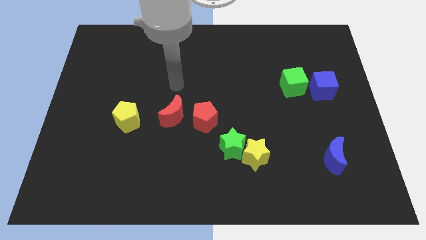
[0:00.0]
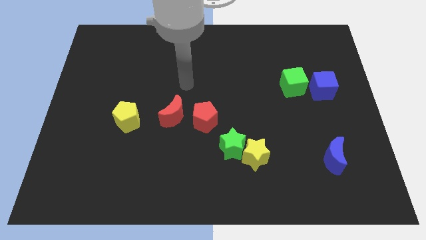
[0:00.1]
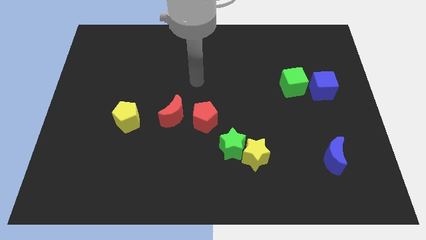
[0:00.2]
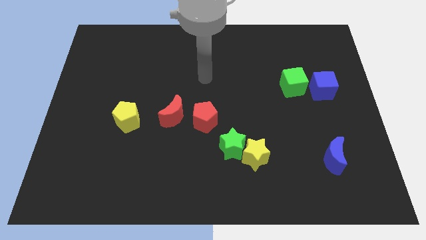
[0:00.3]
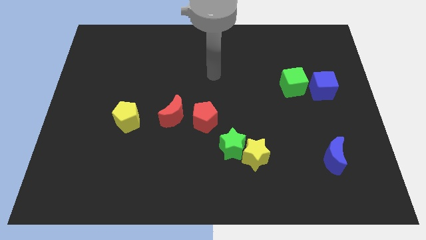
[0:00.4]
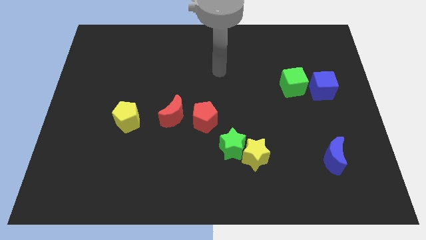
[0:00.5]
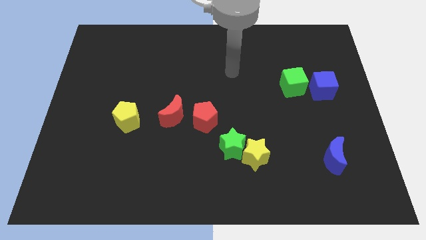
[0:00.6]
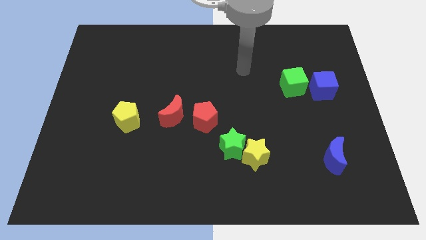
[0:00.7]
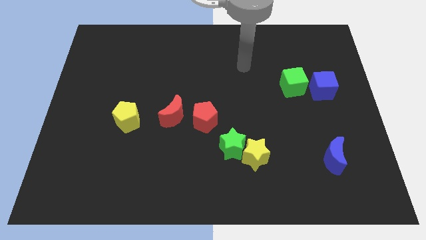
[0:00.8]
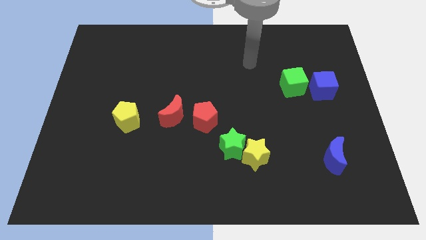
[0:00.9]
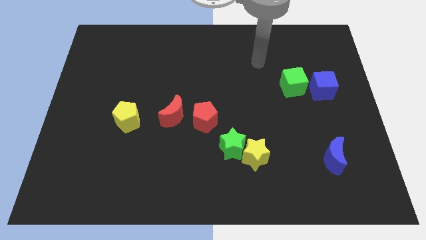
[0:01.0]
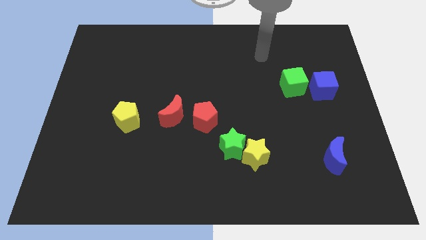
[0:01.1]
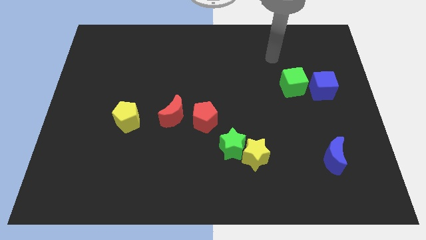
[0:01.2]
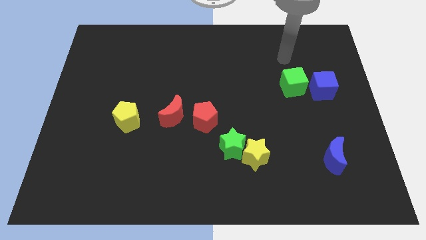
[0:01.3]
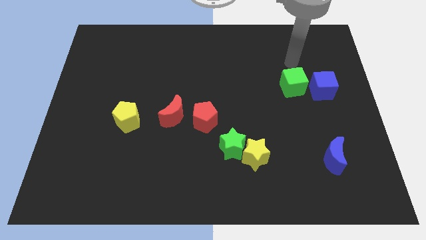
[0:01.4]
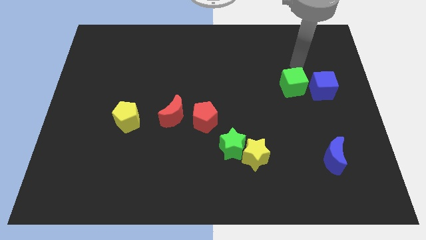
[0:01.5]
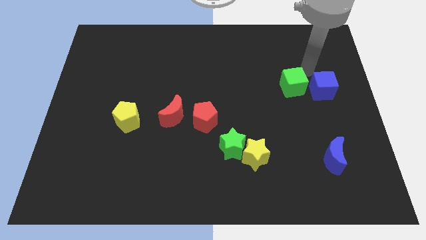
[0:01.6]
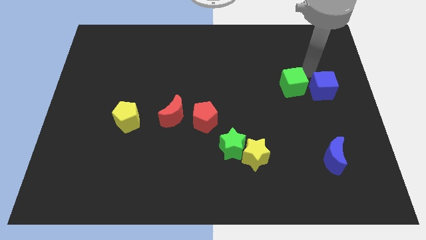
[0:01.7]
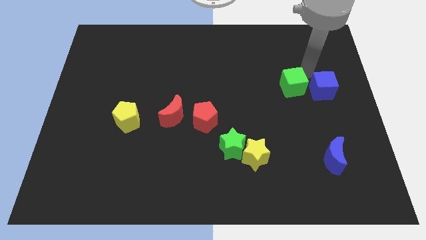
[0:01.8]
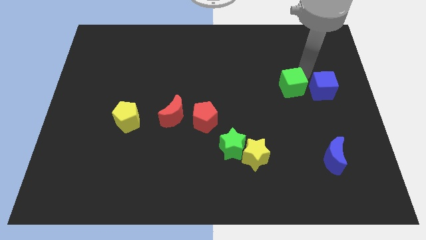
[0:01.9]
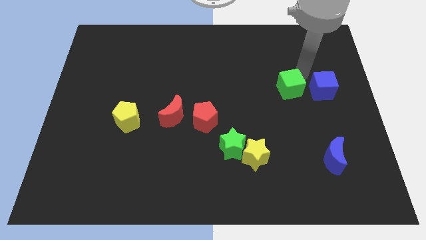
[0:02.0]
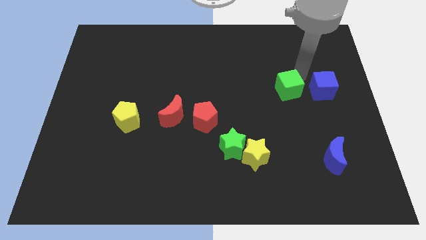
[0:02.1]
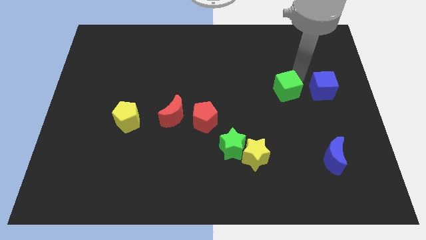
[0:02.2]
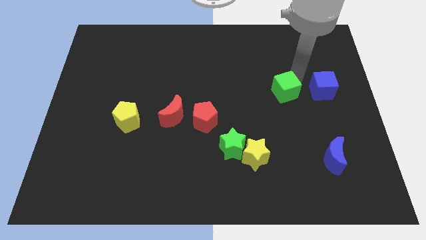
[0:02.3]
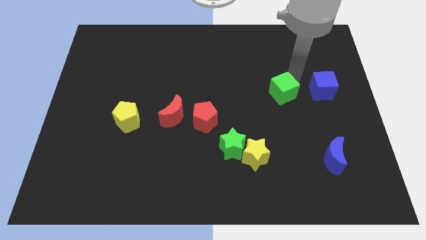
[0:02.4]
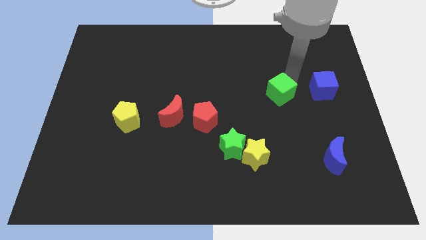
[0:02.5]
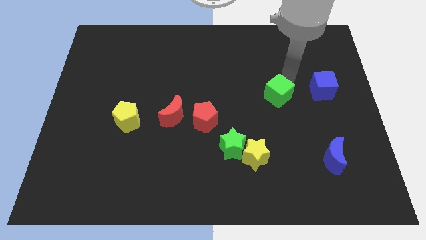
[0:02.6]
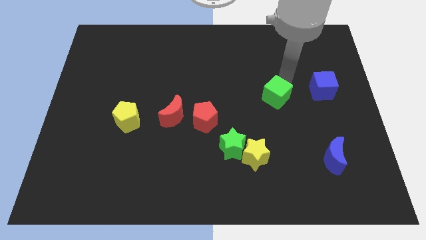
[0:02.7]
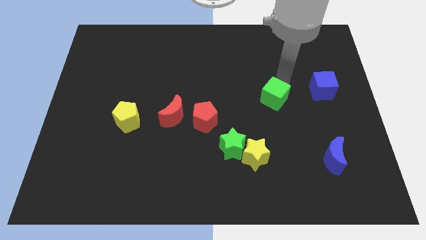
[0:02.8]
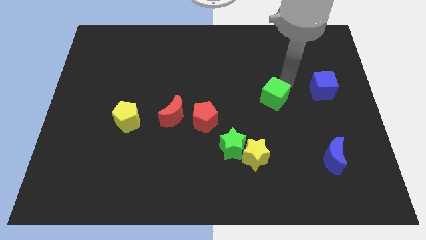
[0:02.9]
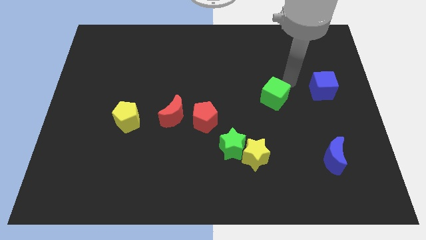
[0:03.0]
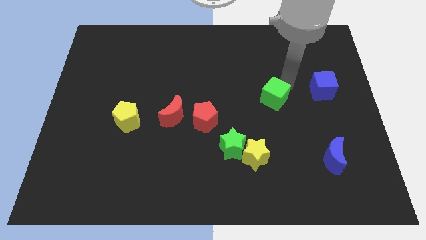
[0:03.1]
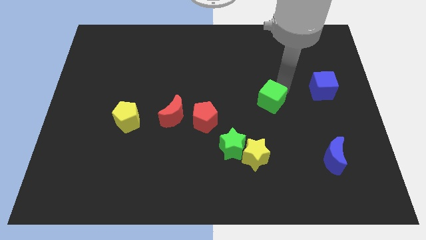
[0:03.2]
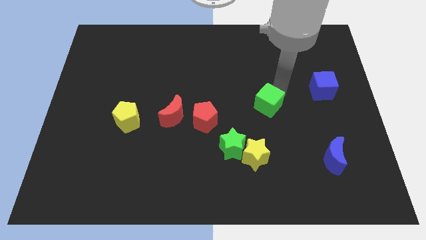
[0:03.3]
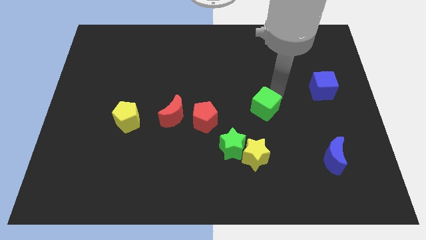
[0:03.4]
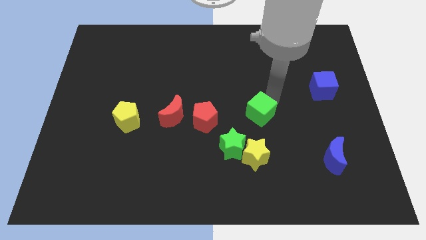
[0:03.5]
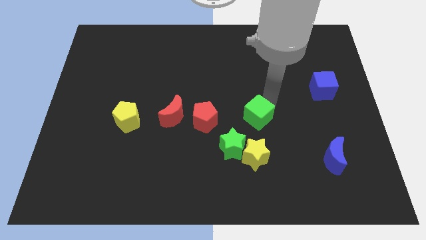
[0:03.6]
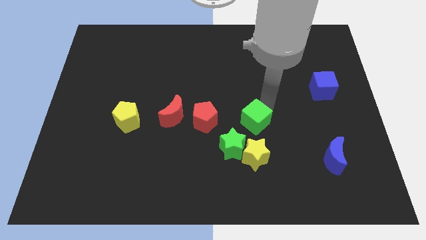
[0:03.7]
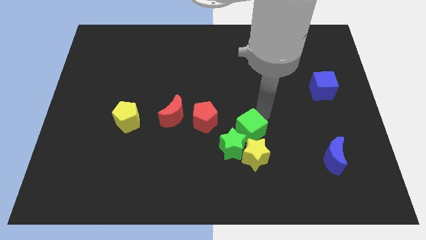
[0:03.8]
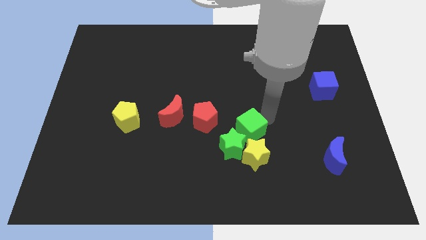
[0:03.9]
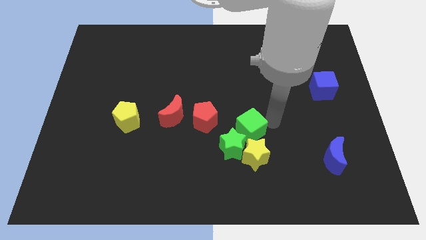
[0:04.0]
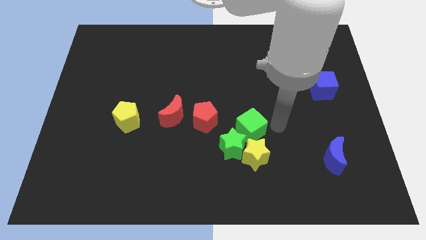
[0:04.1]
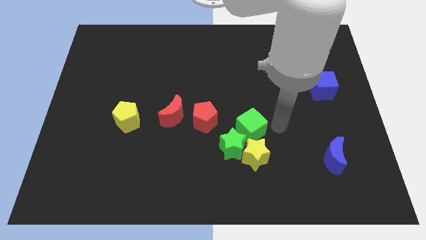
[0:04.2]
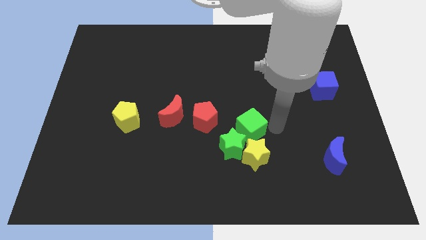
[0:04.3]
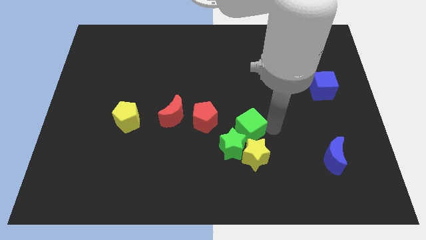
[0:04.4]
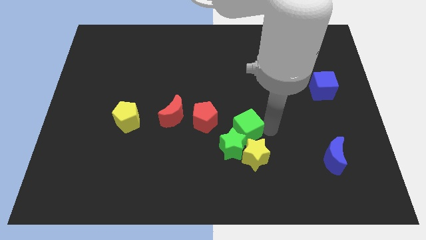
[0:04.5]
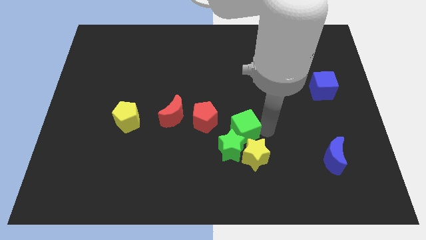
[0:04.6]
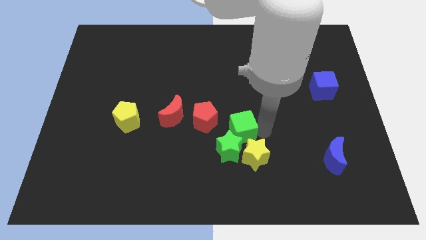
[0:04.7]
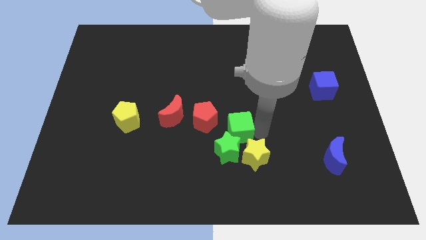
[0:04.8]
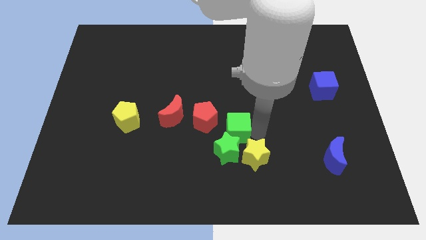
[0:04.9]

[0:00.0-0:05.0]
slide the green cube downwards and then to the left

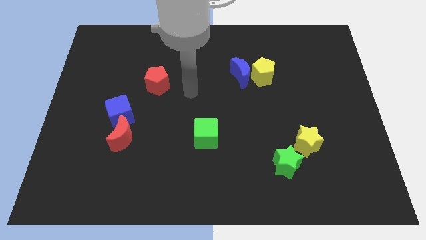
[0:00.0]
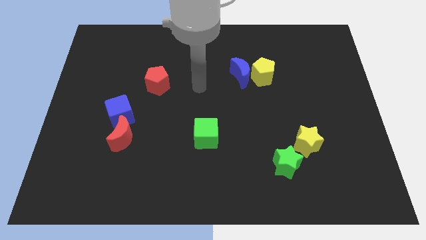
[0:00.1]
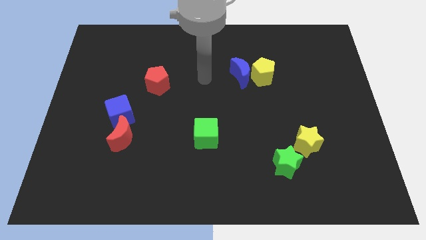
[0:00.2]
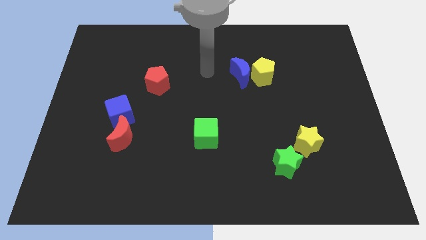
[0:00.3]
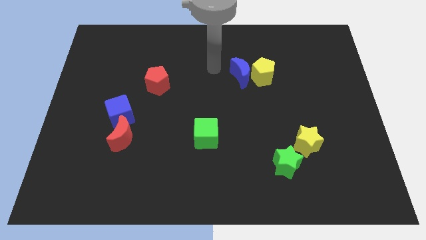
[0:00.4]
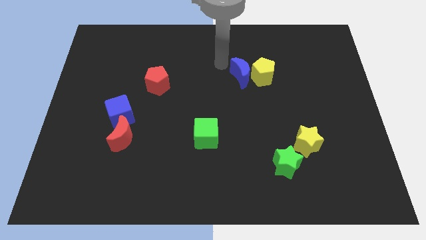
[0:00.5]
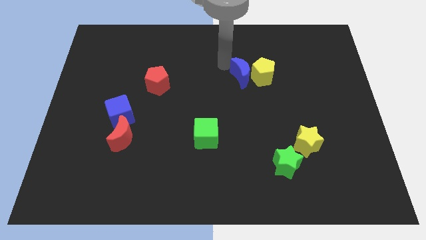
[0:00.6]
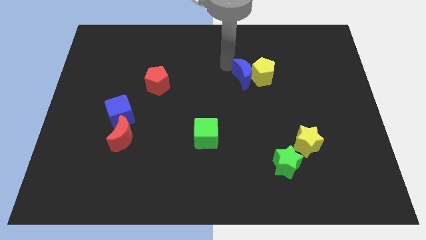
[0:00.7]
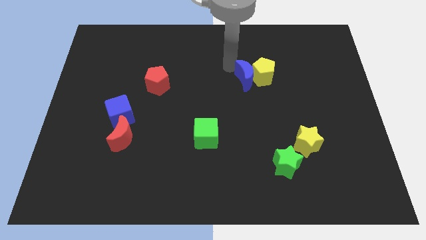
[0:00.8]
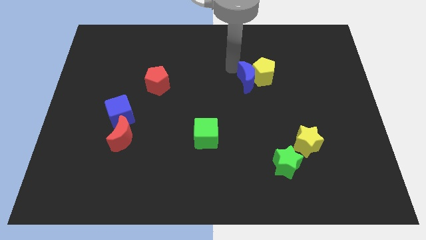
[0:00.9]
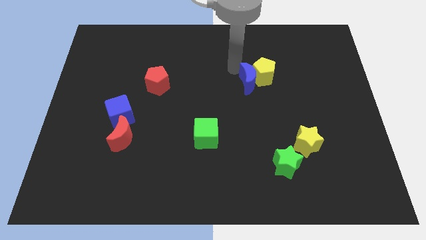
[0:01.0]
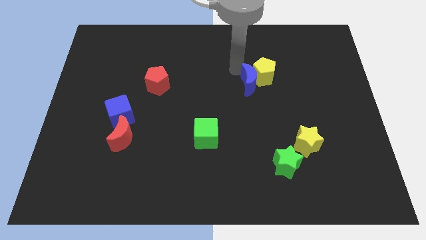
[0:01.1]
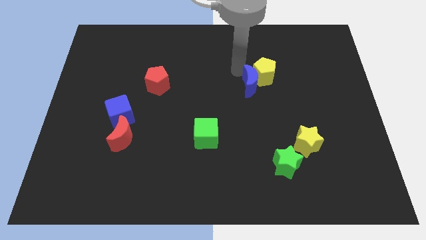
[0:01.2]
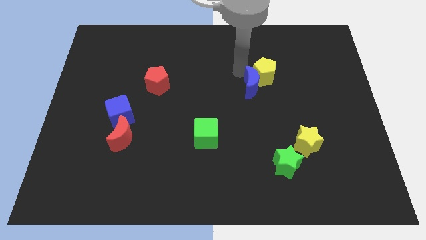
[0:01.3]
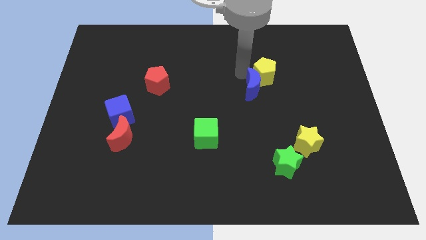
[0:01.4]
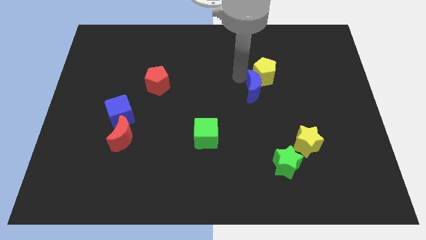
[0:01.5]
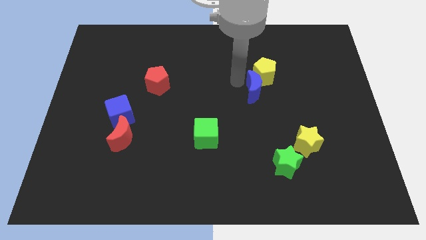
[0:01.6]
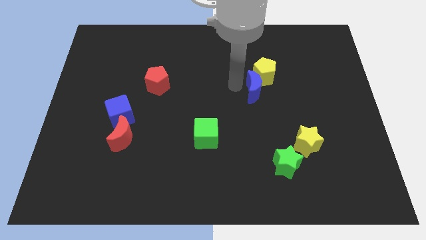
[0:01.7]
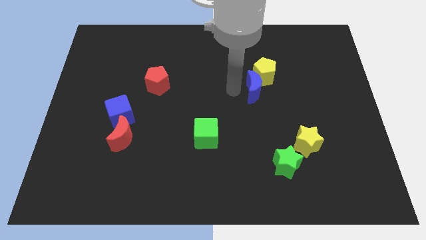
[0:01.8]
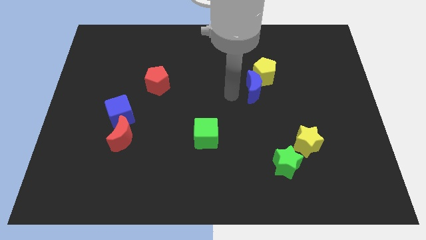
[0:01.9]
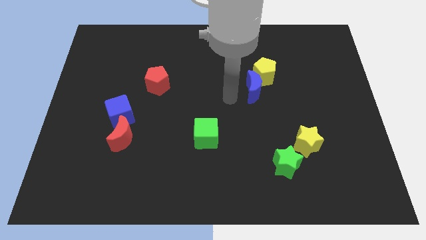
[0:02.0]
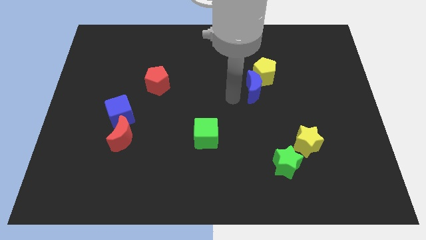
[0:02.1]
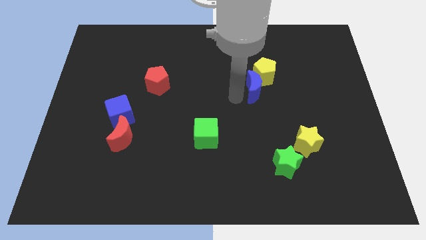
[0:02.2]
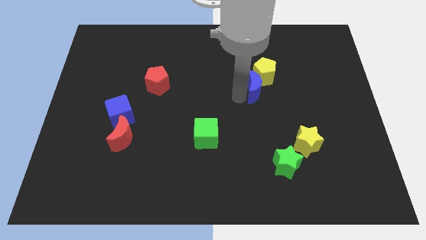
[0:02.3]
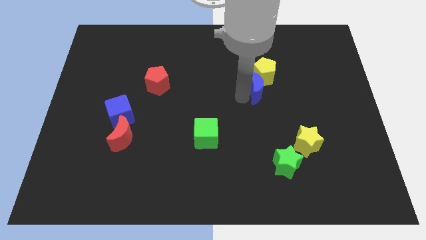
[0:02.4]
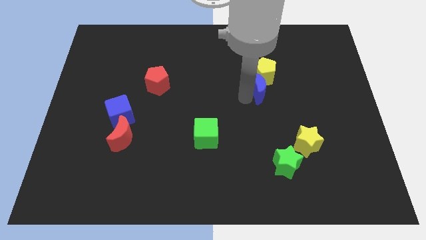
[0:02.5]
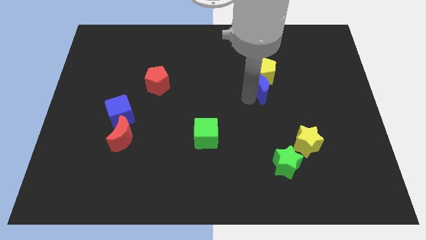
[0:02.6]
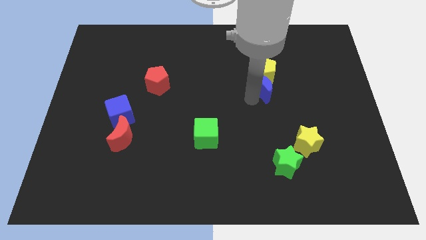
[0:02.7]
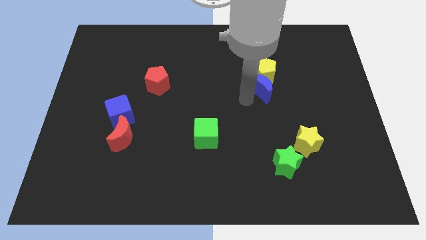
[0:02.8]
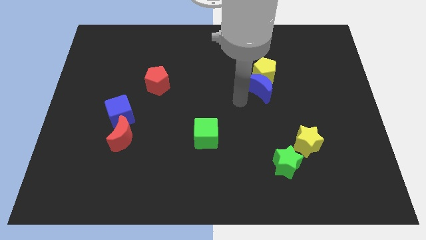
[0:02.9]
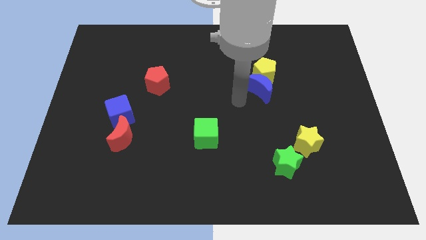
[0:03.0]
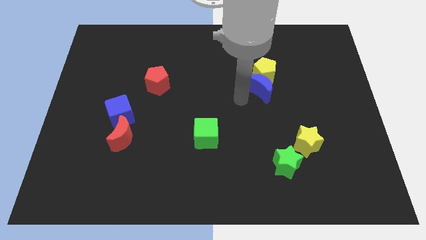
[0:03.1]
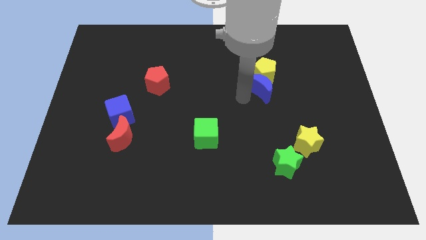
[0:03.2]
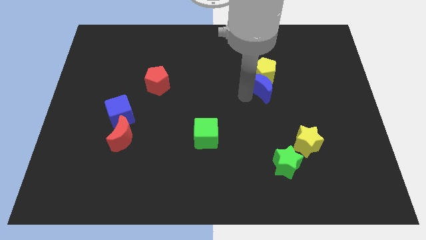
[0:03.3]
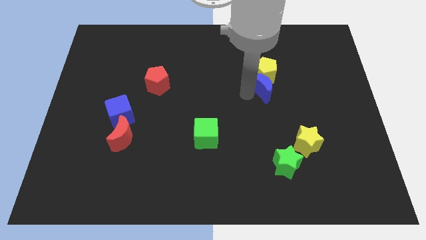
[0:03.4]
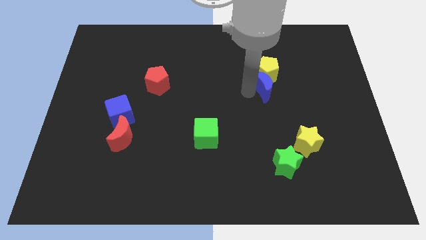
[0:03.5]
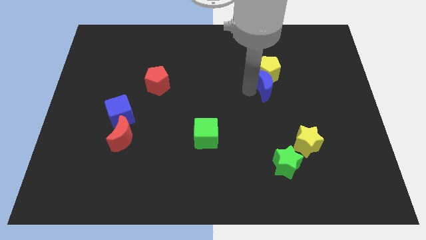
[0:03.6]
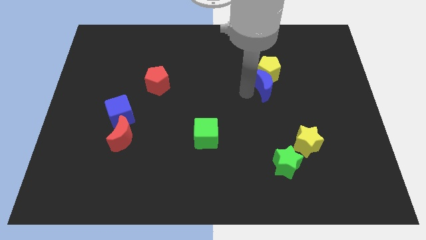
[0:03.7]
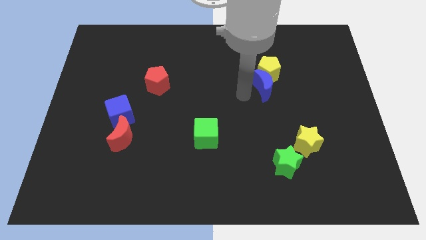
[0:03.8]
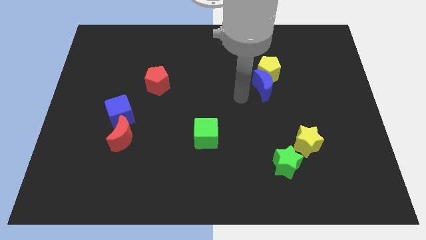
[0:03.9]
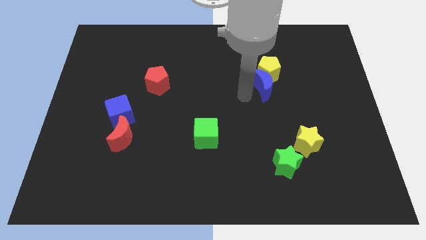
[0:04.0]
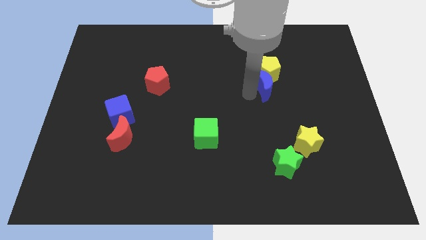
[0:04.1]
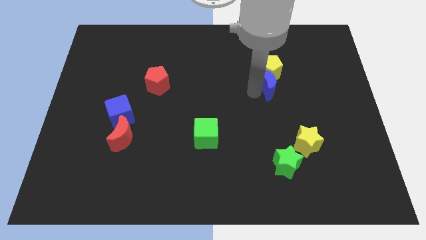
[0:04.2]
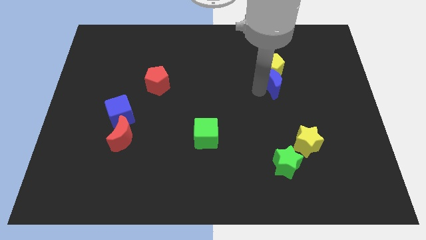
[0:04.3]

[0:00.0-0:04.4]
push the blue moon a bit to the right
